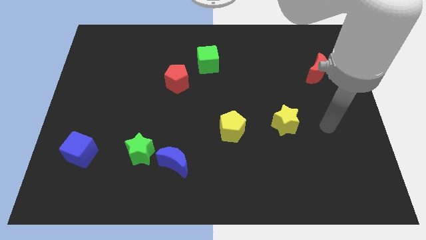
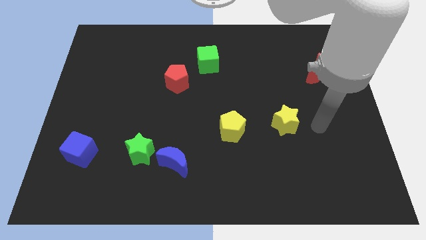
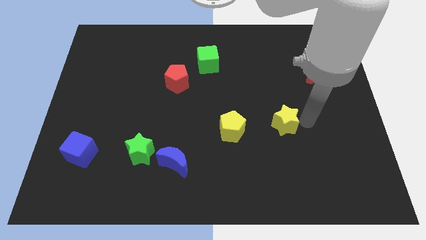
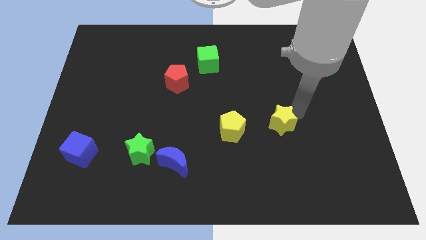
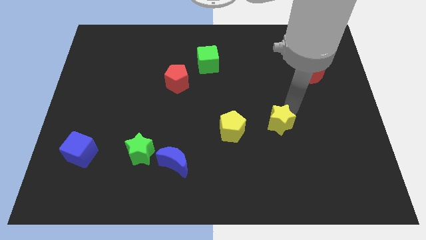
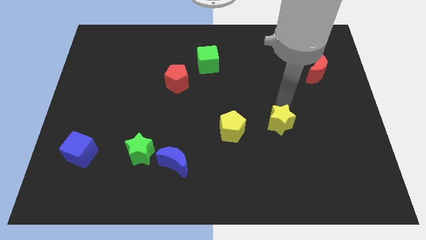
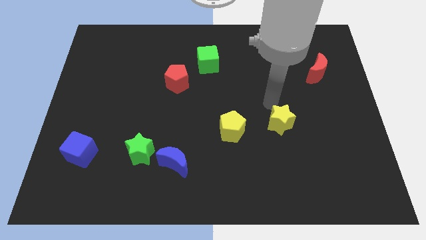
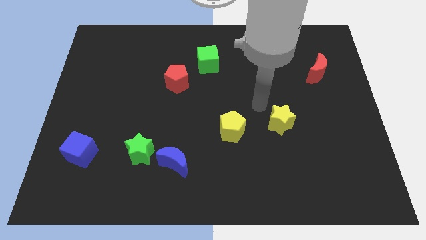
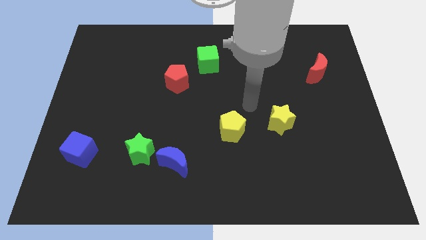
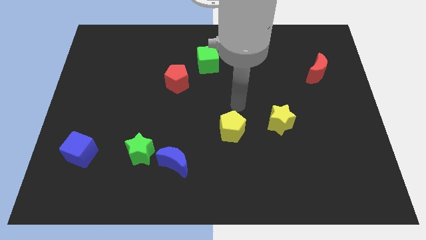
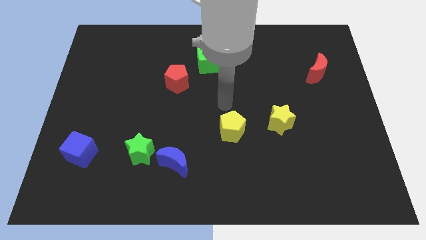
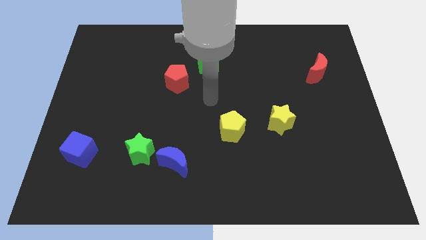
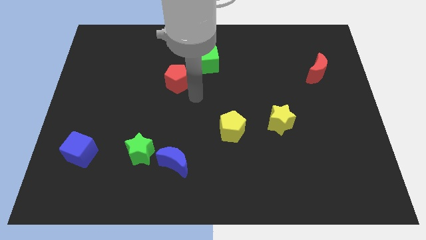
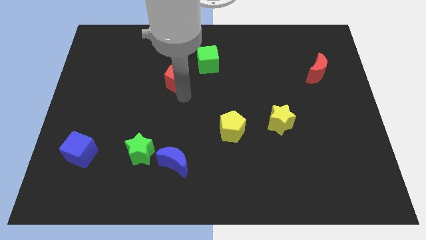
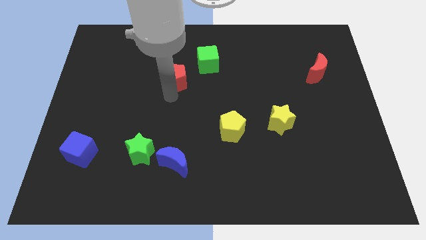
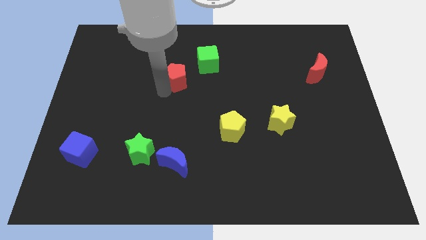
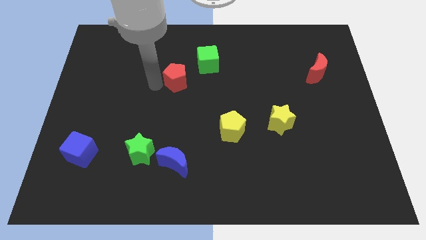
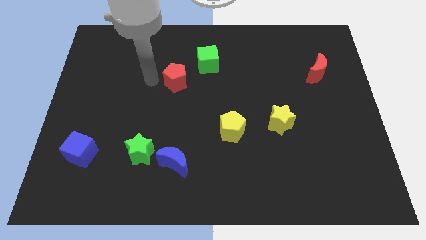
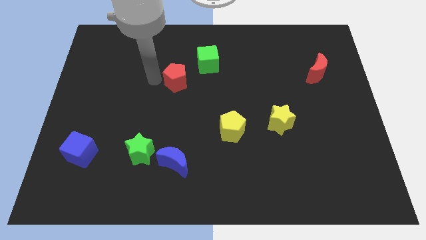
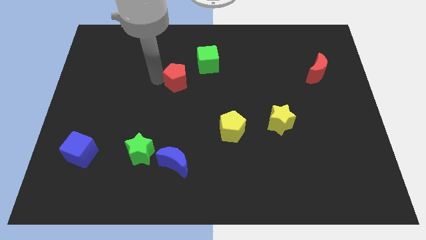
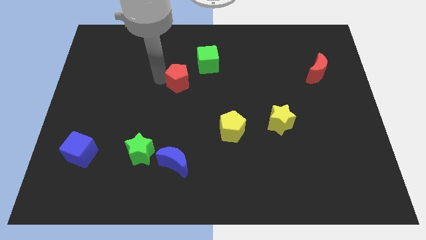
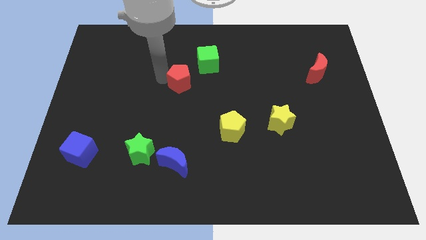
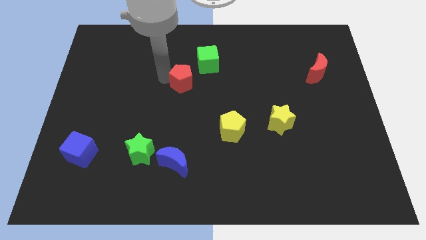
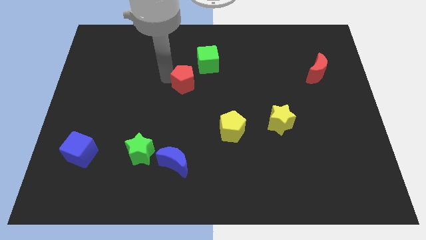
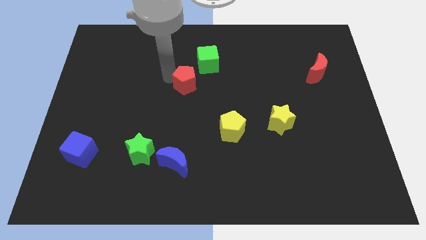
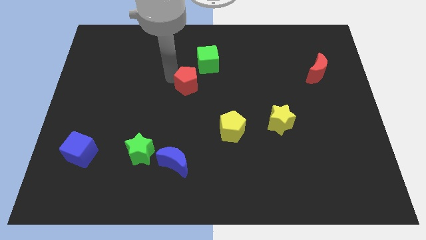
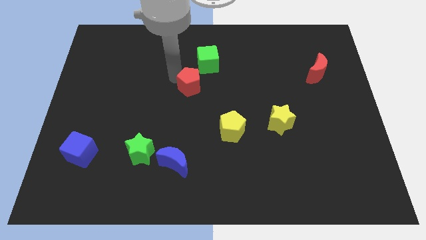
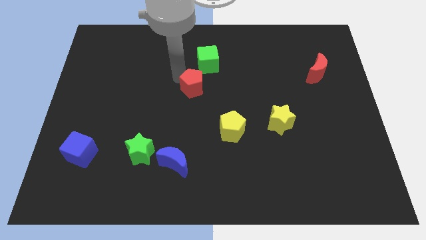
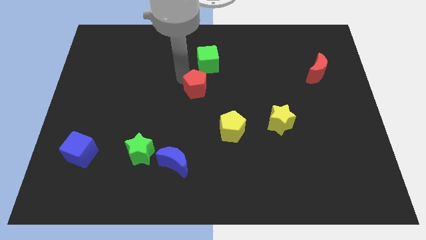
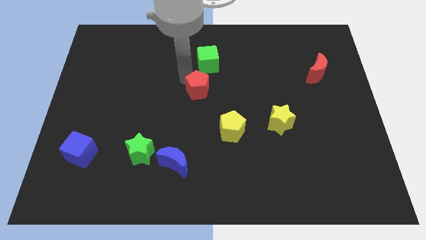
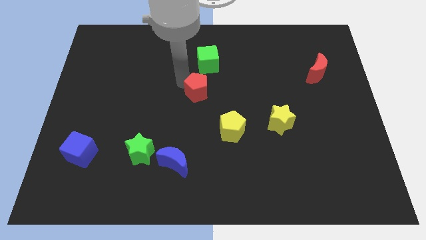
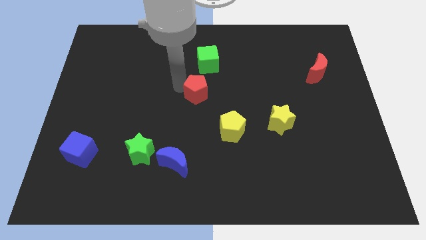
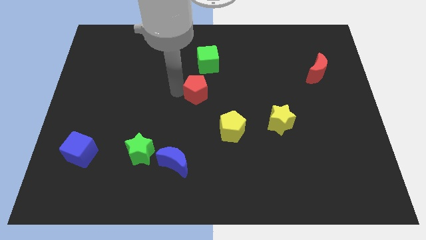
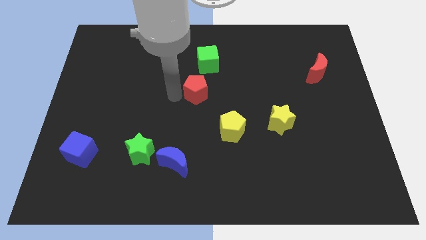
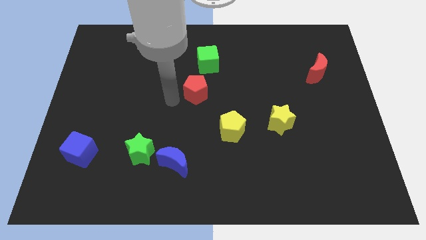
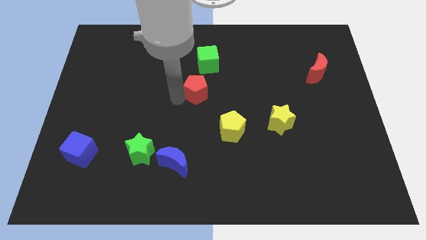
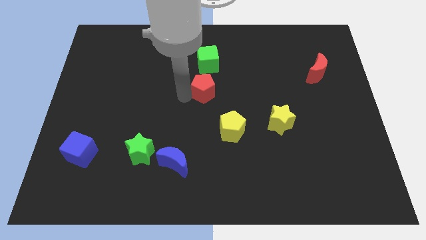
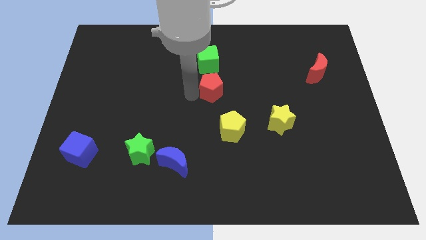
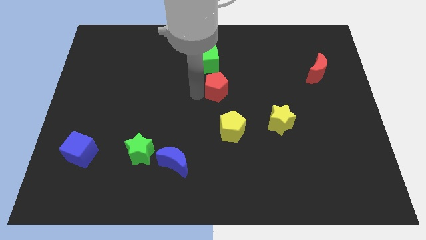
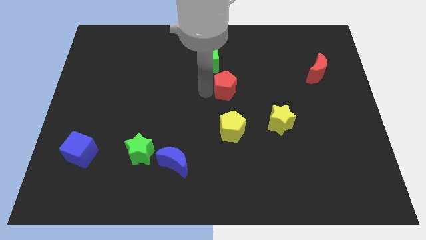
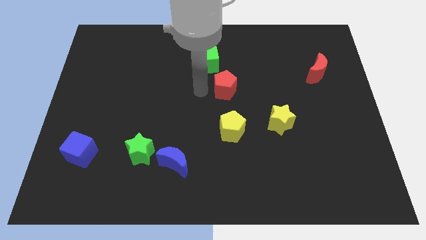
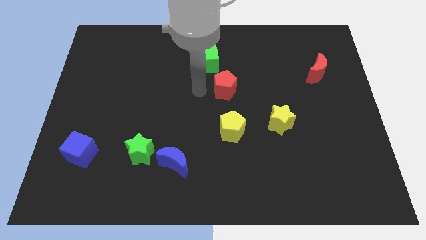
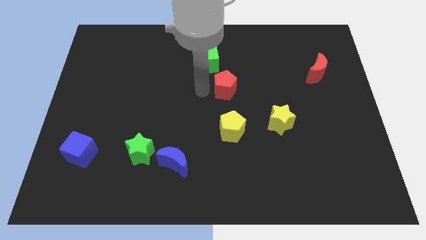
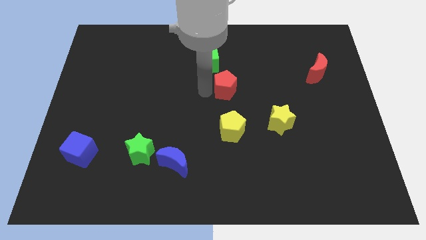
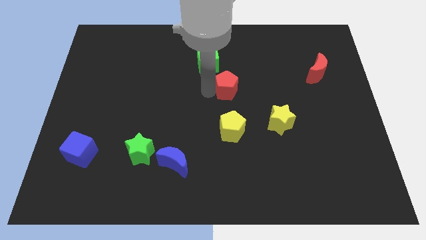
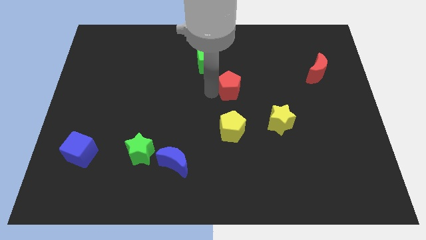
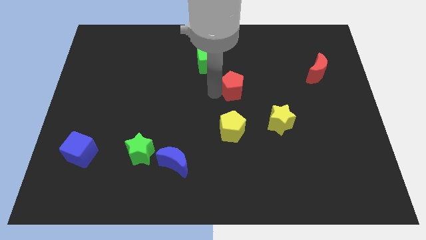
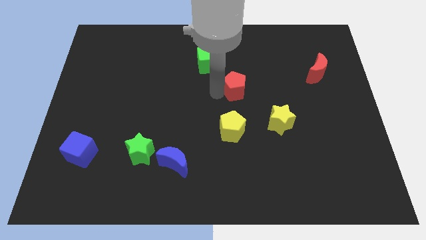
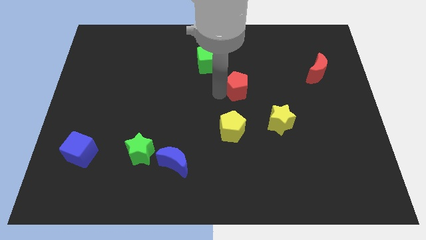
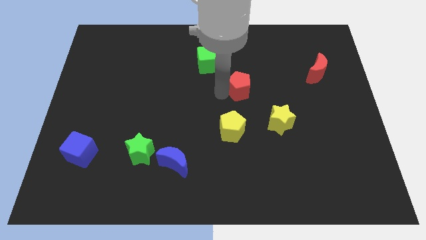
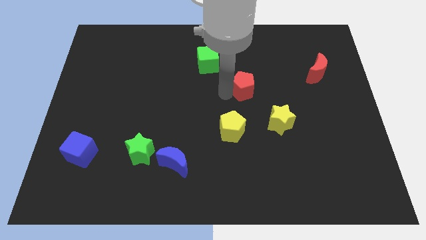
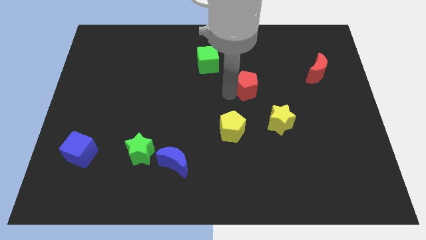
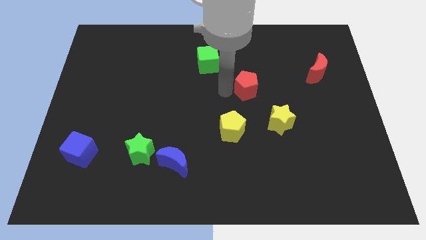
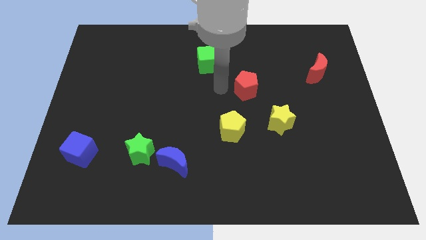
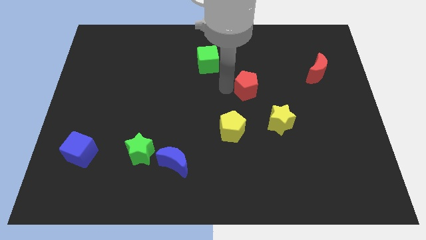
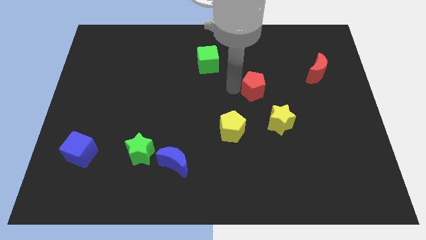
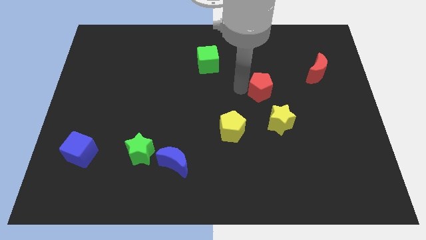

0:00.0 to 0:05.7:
move the red pentagon to the top of the yellow star

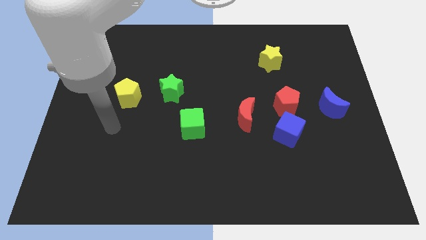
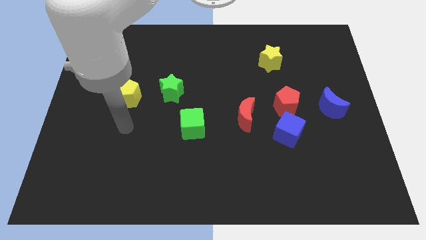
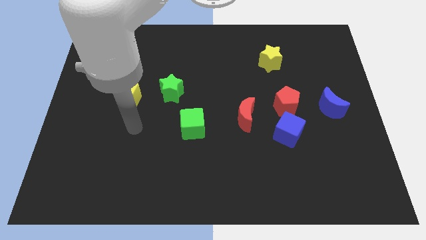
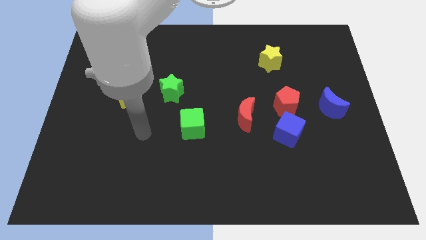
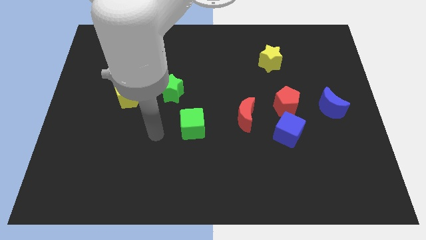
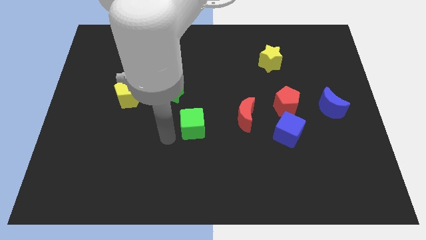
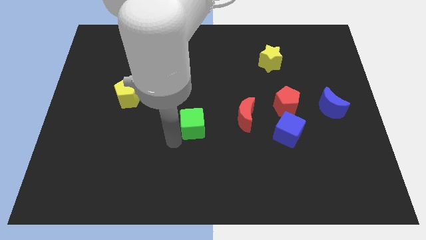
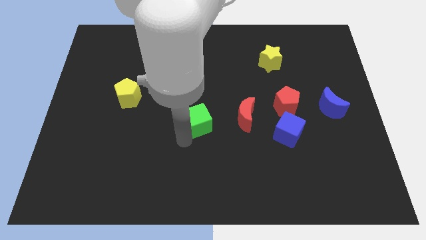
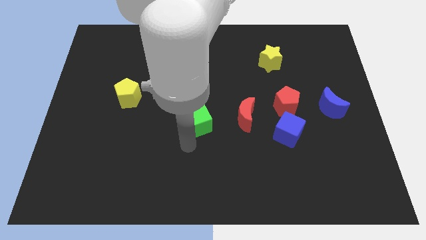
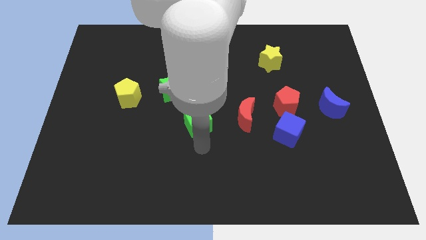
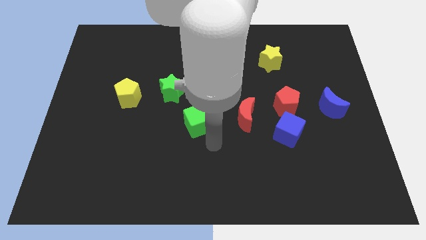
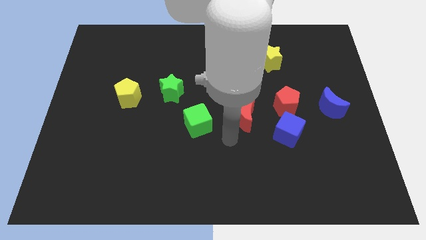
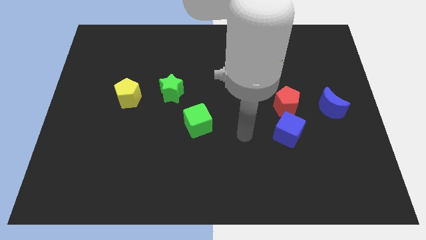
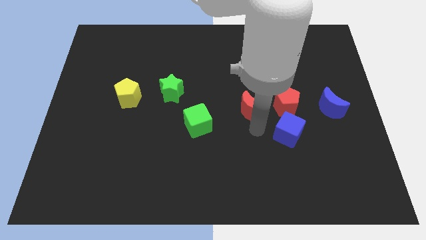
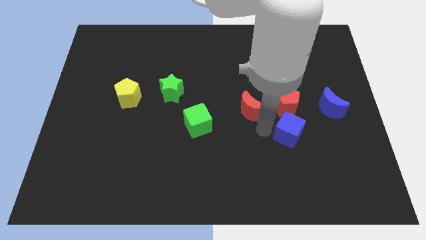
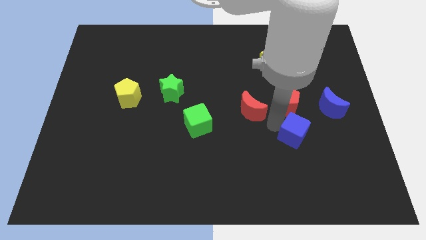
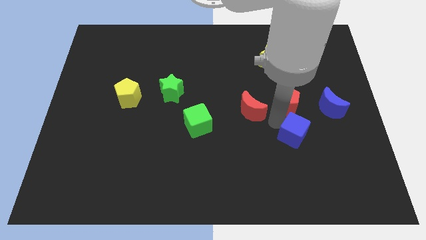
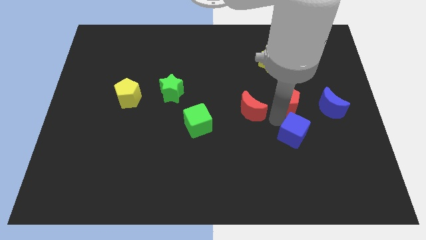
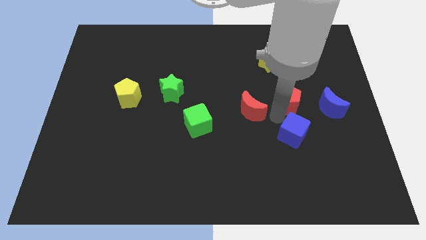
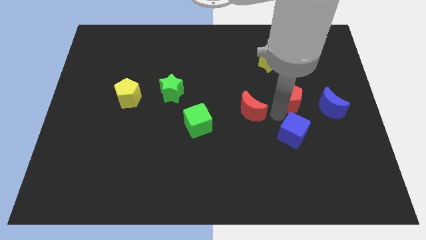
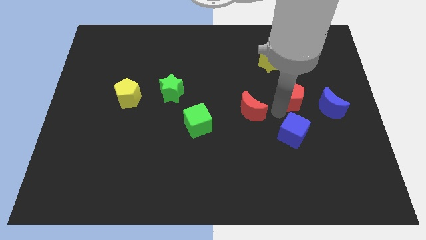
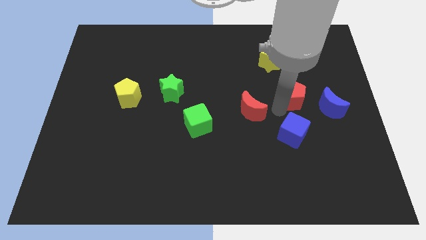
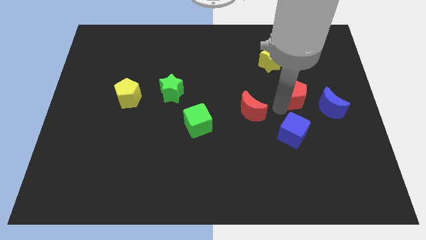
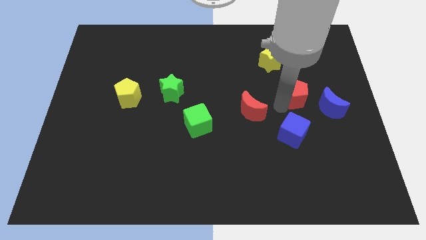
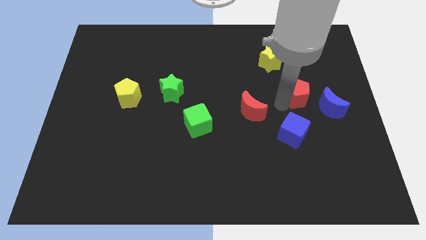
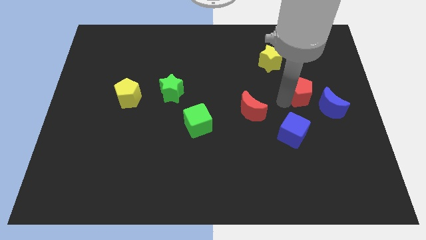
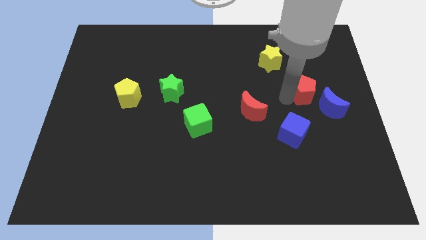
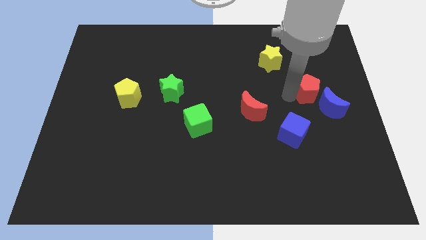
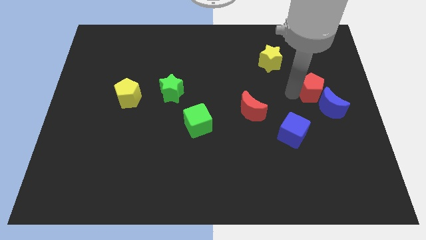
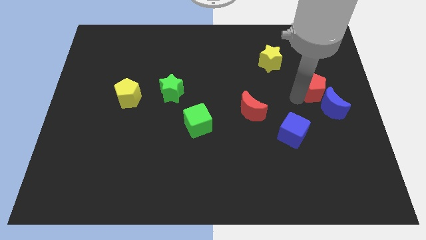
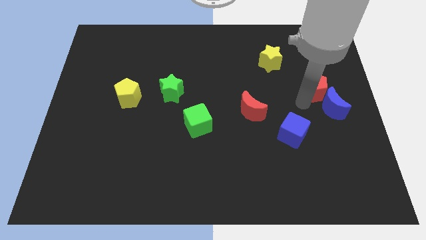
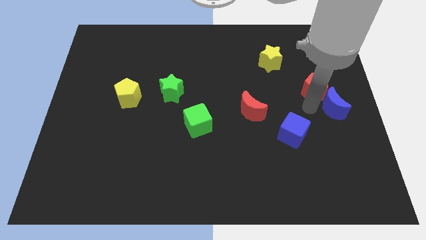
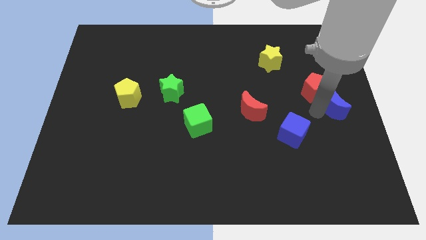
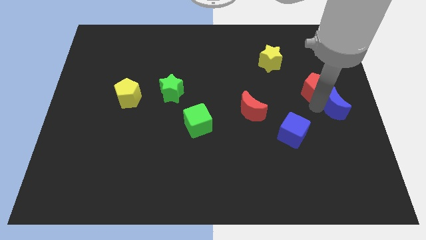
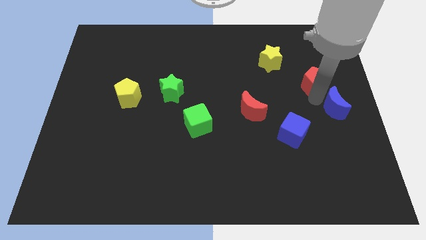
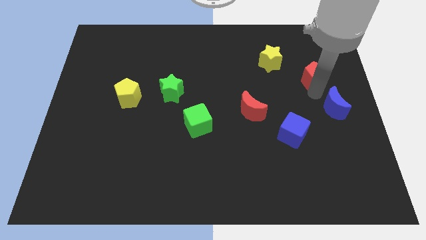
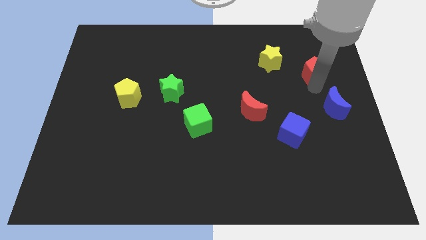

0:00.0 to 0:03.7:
slide the red pentagon to the right side of the yellow star
